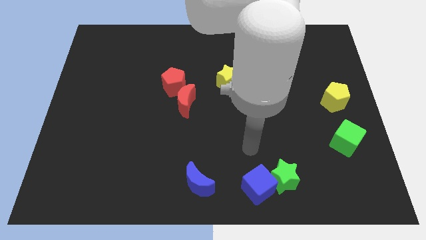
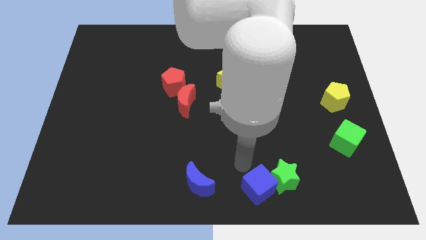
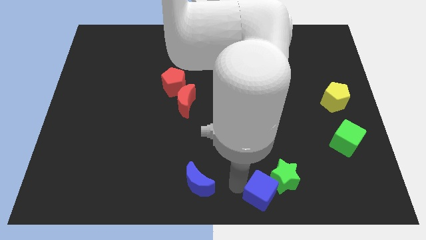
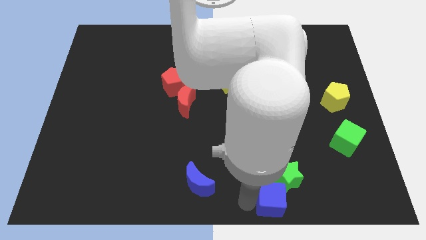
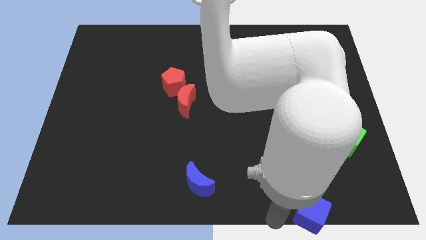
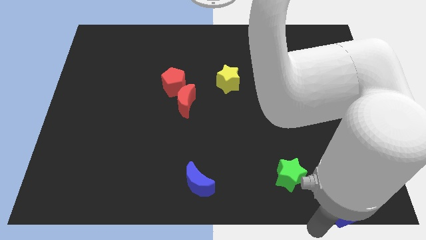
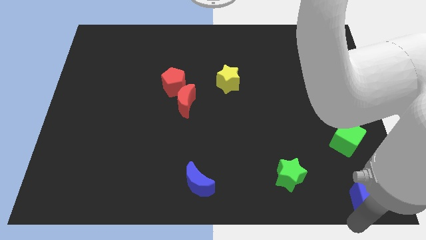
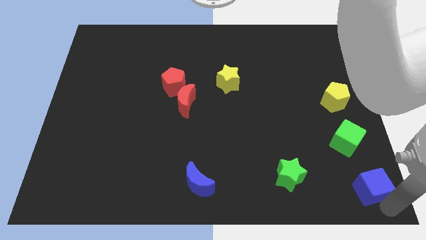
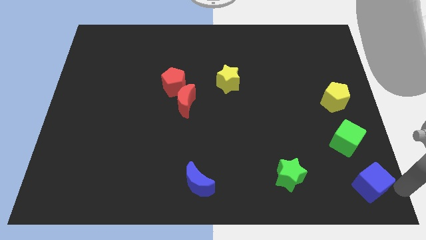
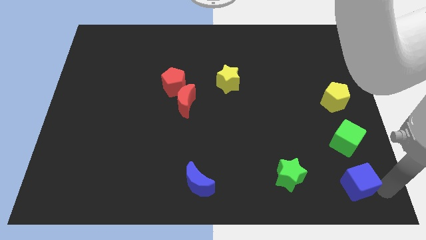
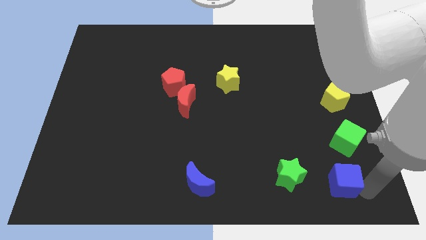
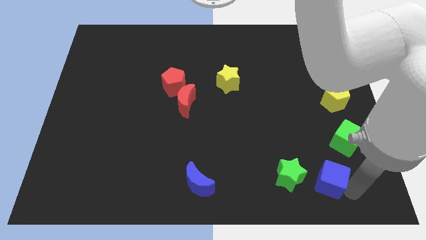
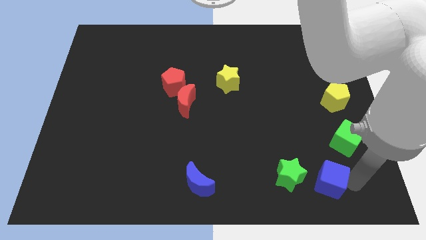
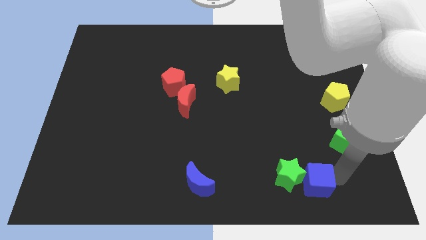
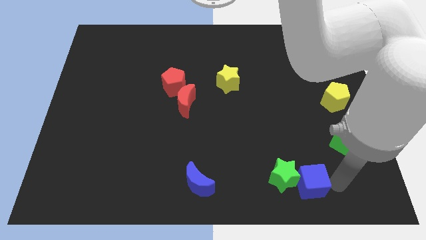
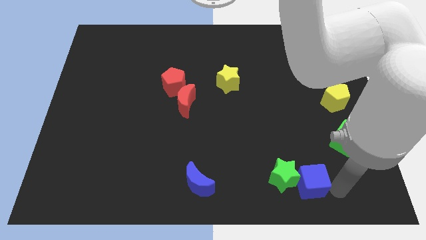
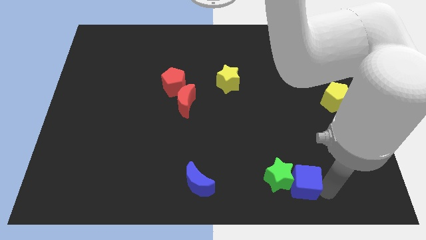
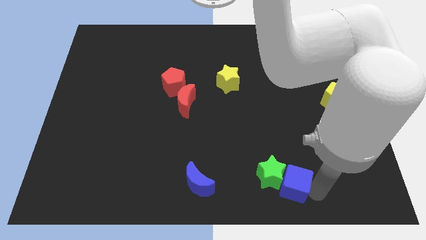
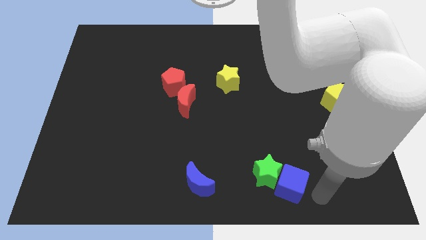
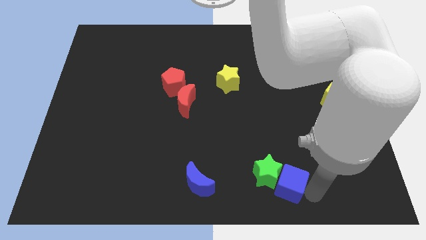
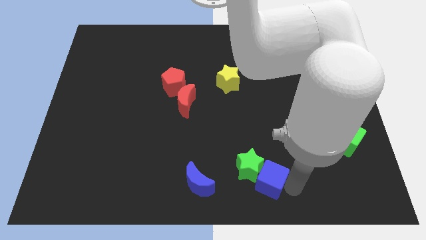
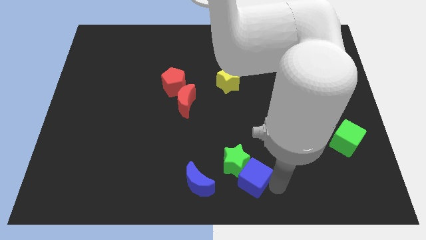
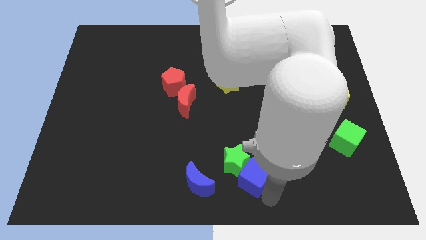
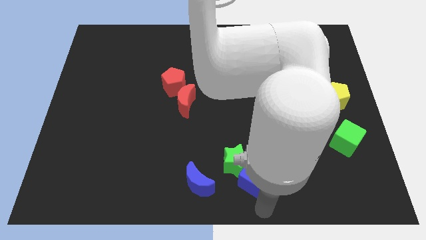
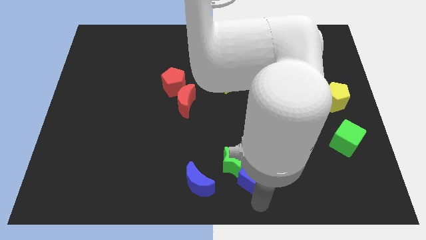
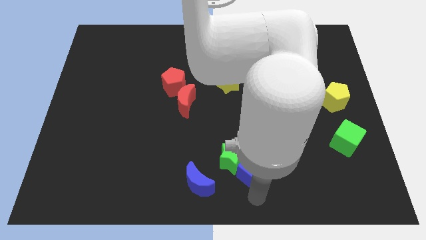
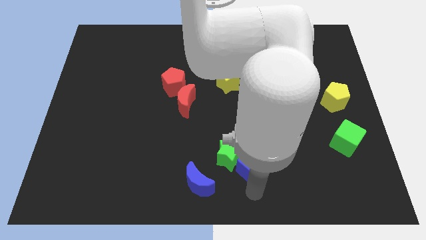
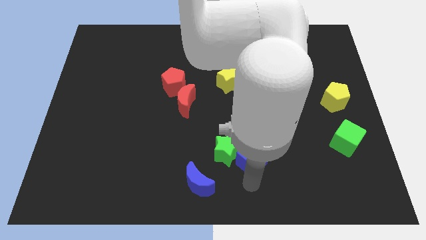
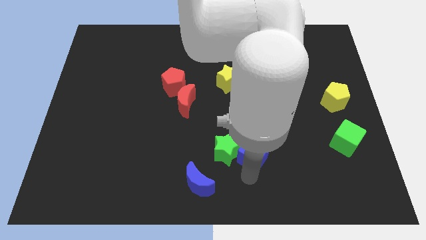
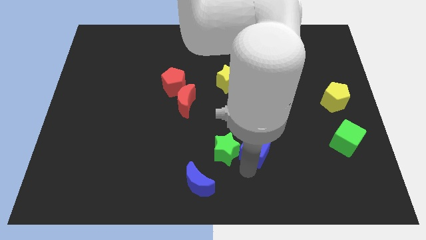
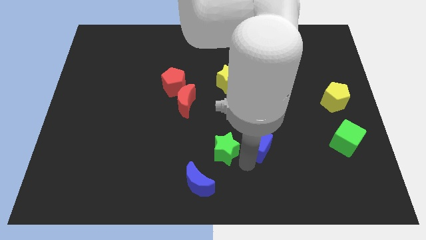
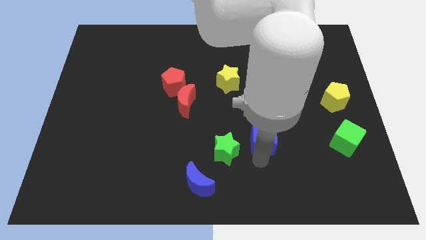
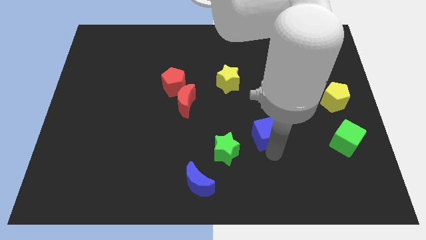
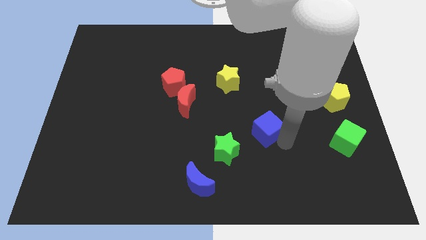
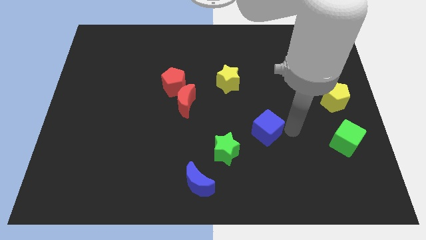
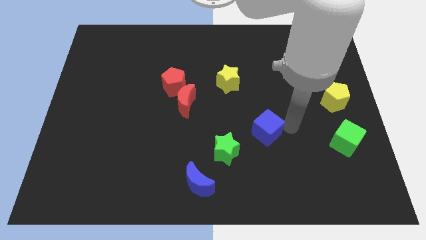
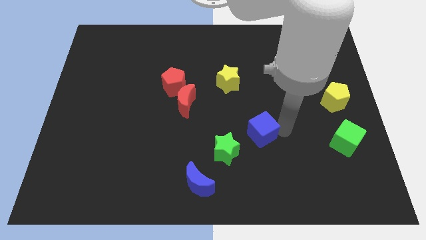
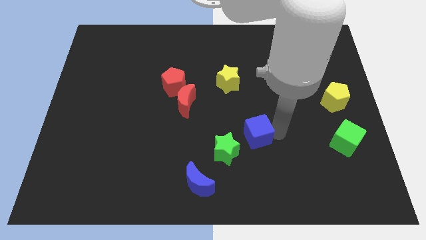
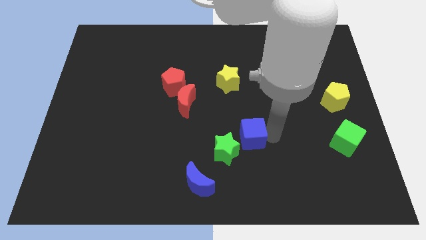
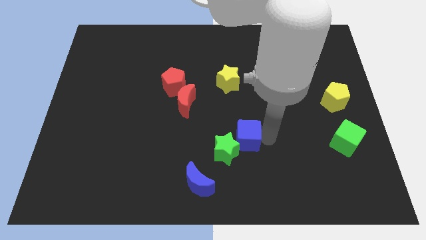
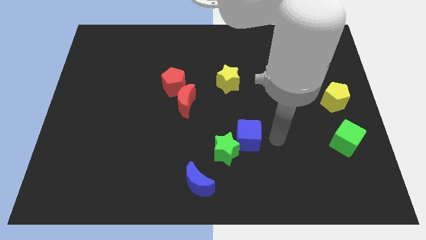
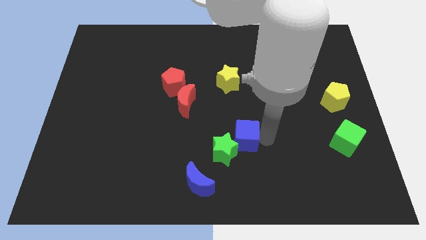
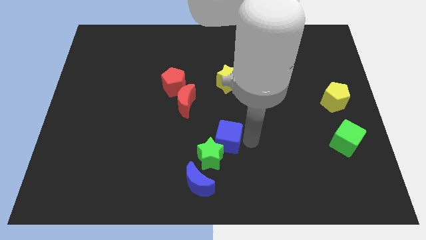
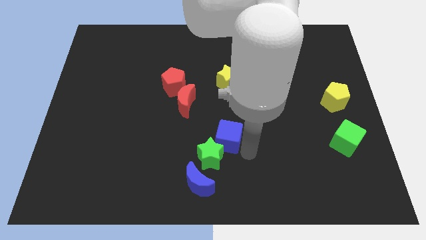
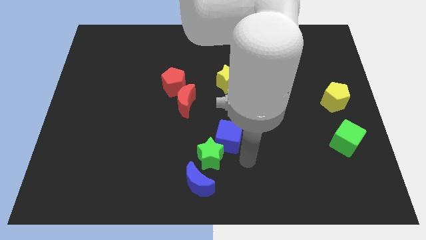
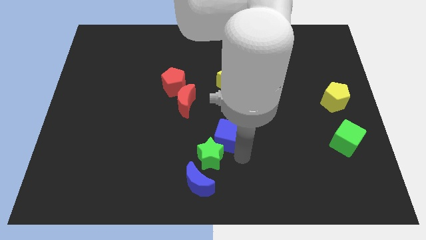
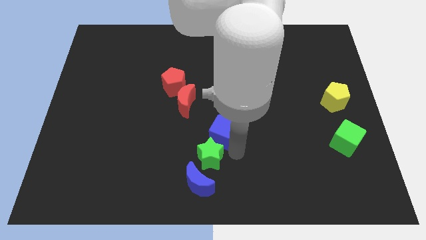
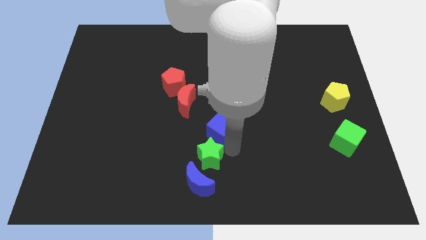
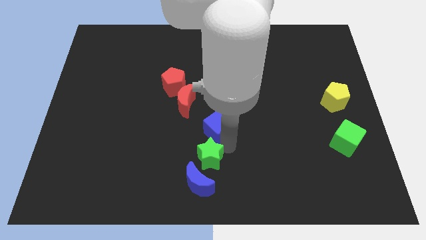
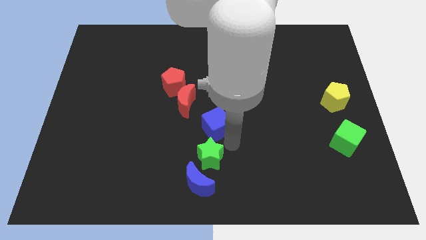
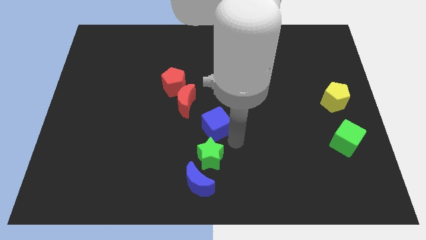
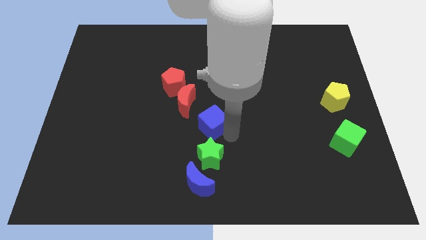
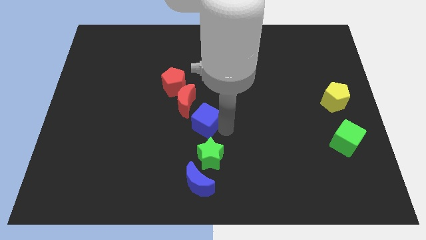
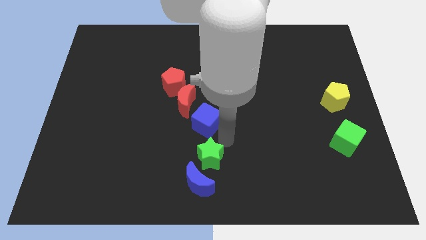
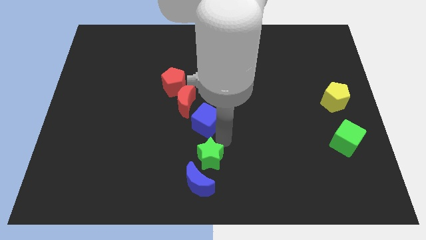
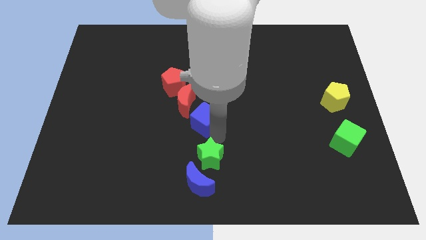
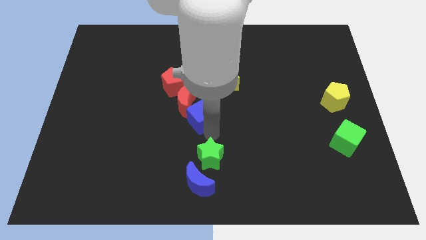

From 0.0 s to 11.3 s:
slide the blue cube close to the red moon

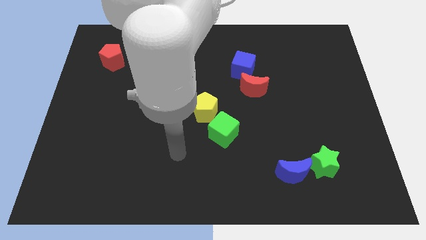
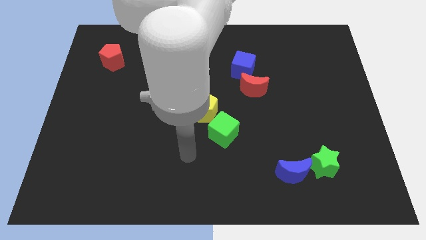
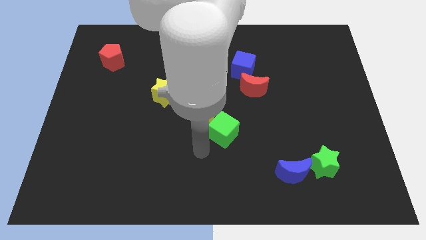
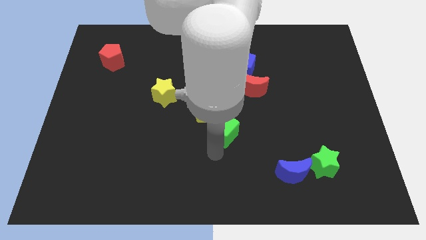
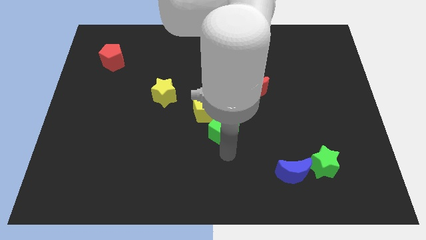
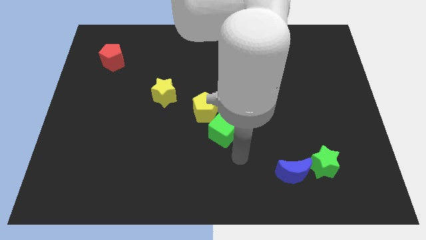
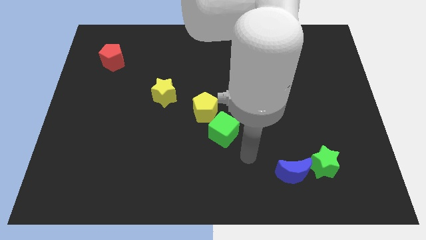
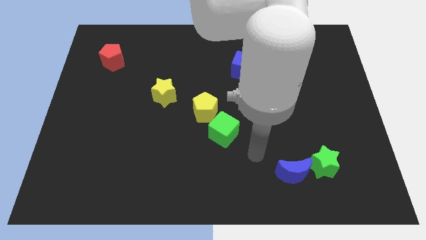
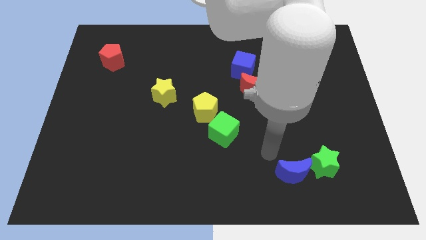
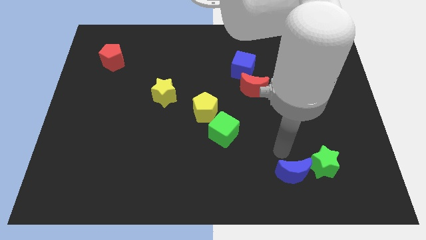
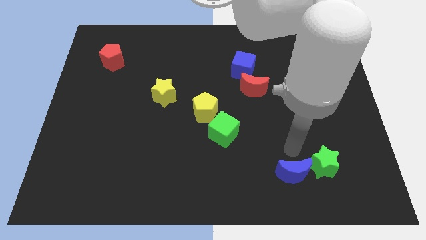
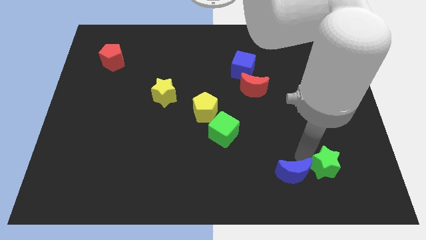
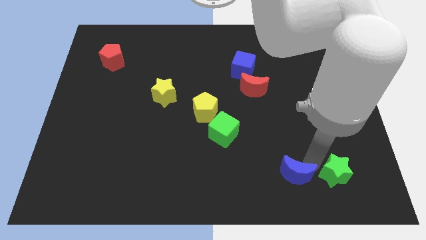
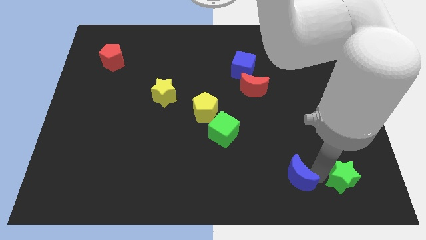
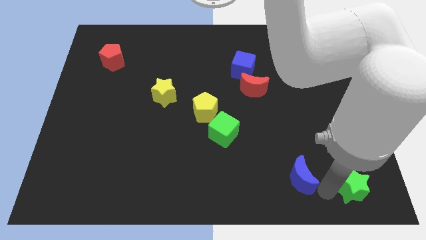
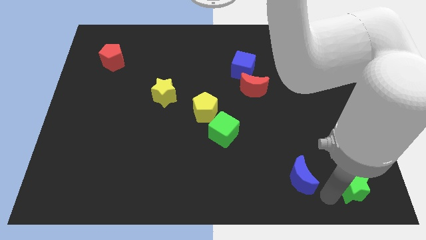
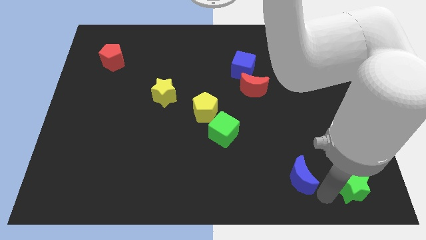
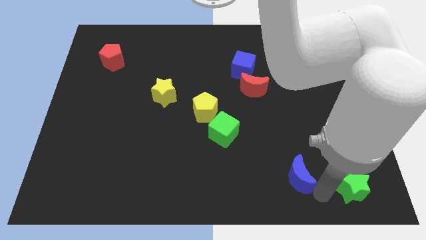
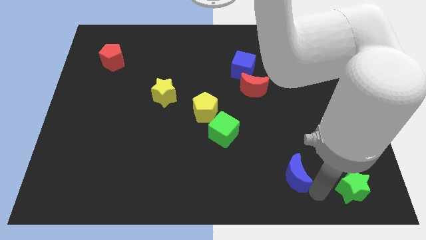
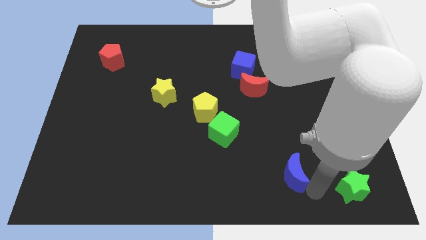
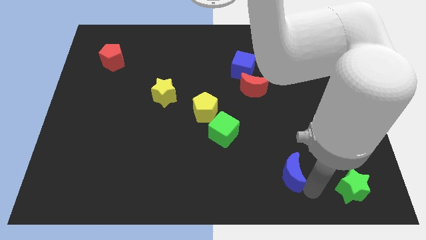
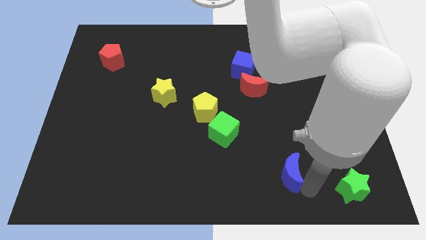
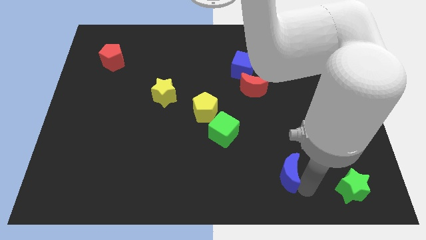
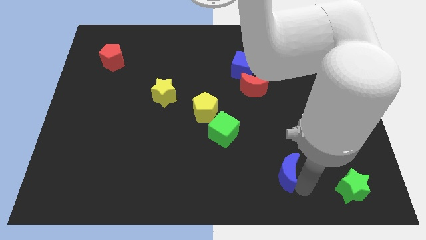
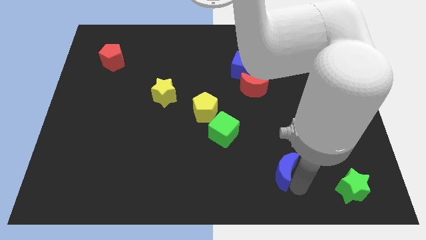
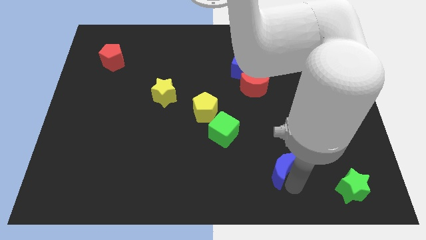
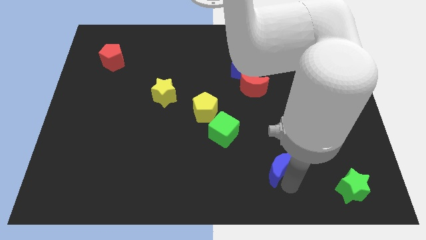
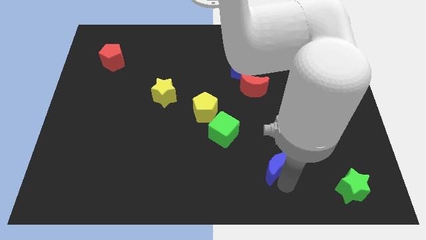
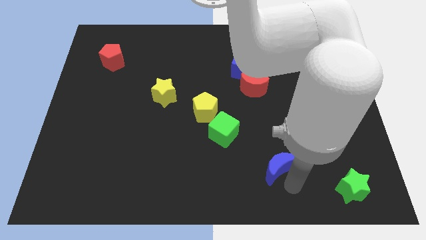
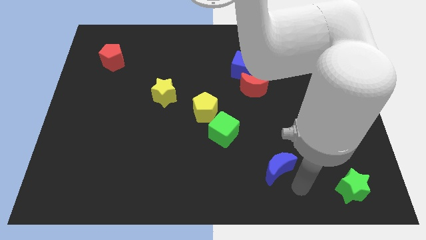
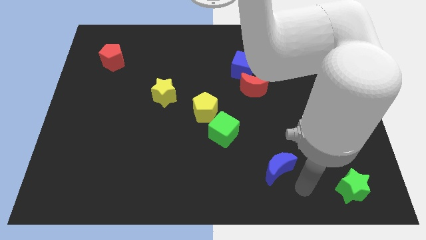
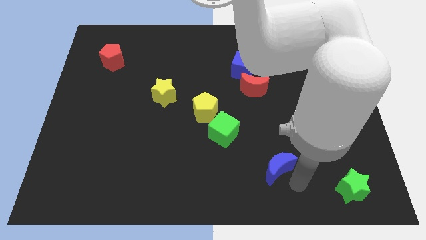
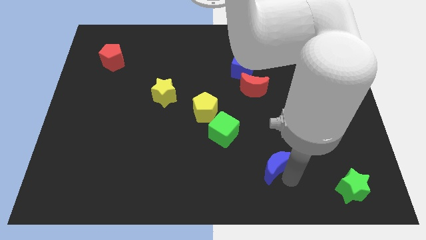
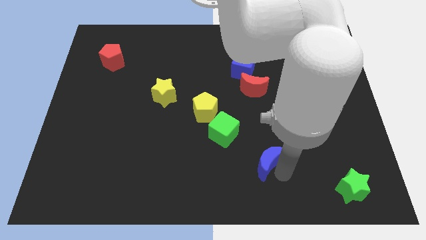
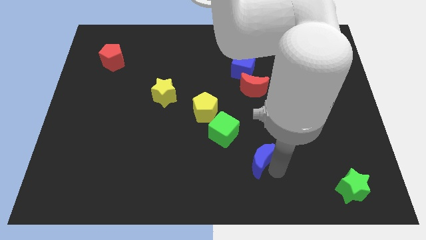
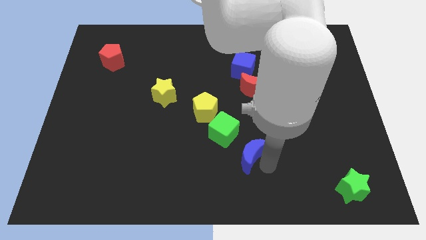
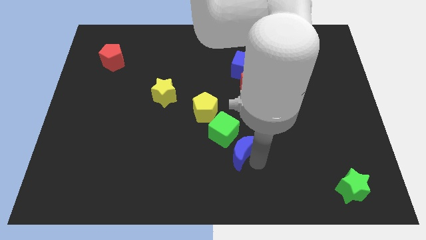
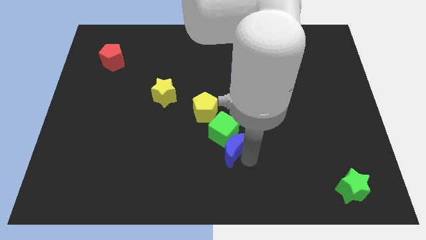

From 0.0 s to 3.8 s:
move the blue moon close to the green cube
